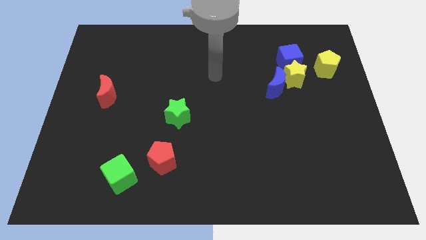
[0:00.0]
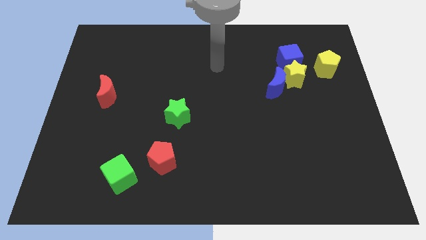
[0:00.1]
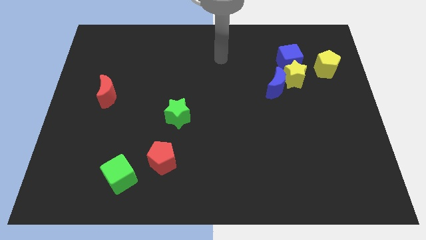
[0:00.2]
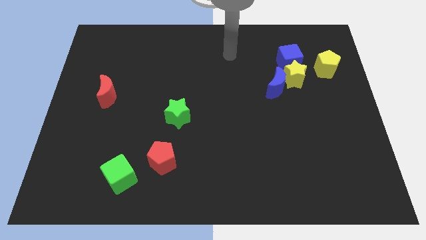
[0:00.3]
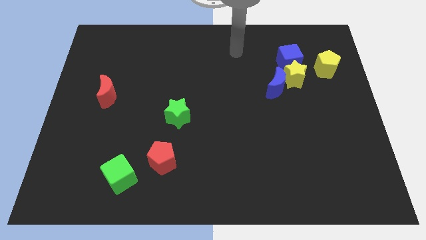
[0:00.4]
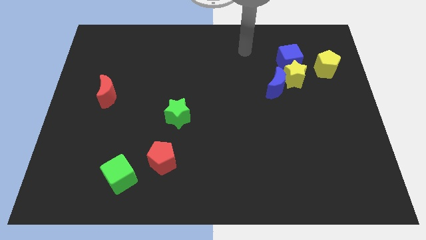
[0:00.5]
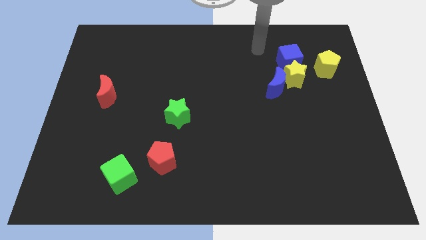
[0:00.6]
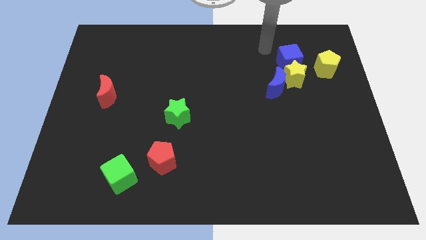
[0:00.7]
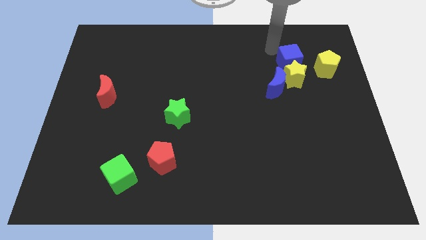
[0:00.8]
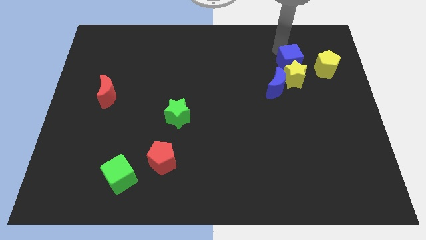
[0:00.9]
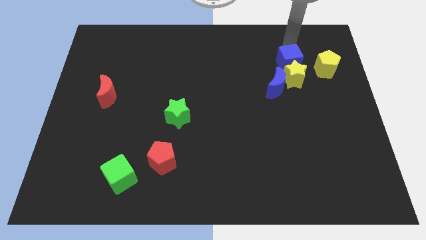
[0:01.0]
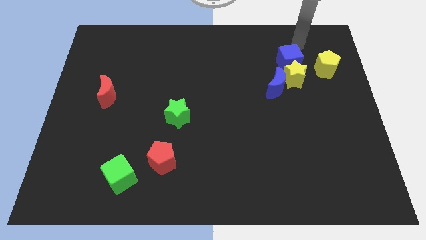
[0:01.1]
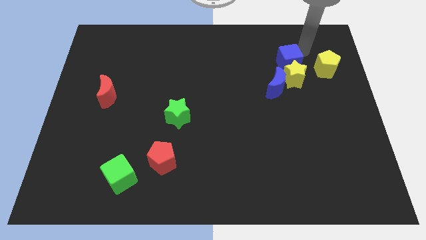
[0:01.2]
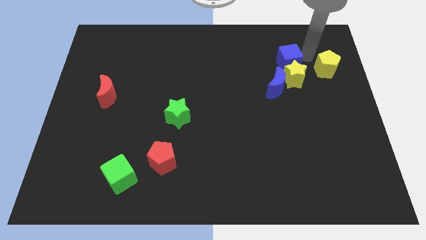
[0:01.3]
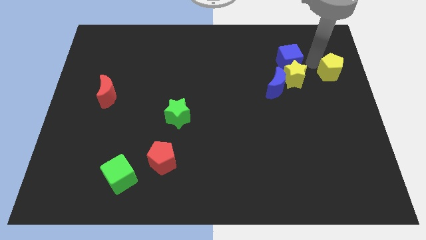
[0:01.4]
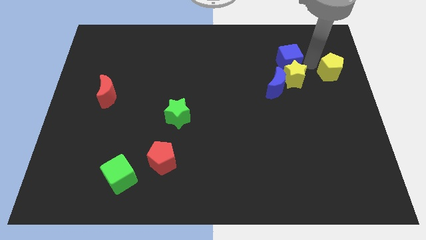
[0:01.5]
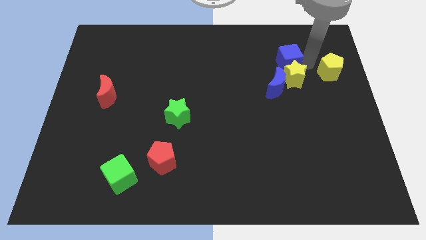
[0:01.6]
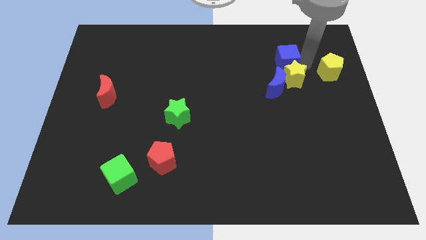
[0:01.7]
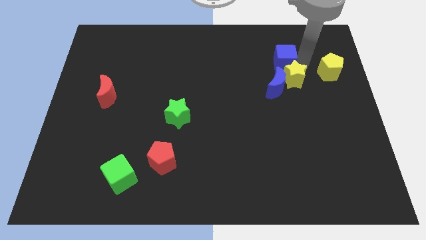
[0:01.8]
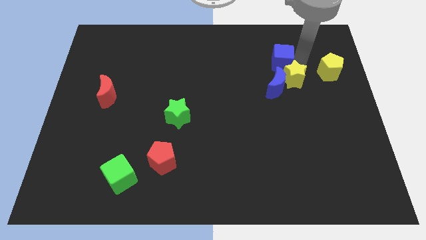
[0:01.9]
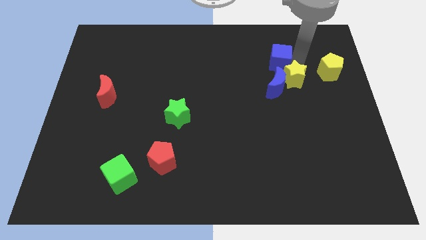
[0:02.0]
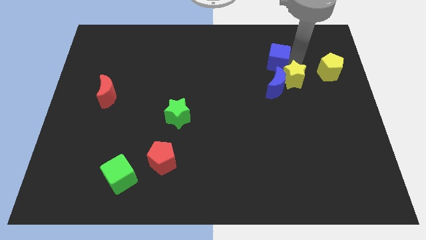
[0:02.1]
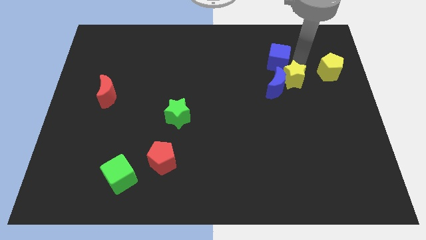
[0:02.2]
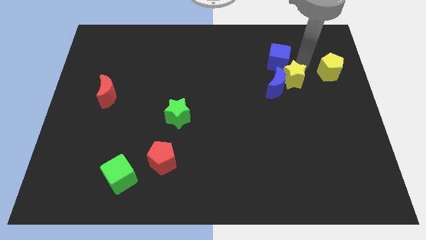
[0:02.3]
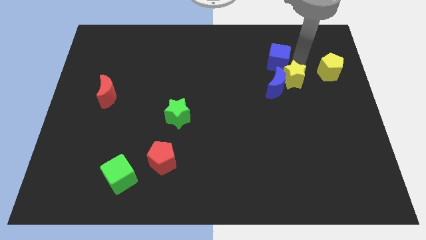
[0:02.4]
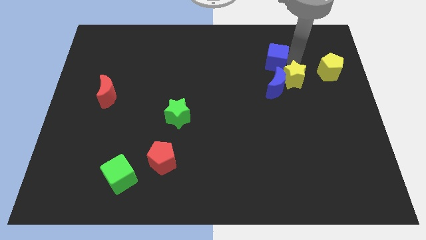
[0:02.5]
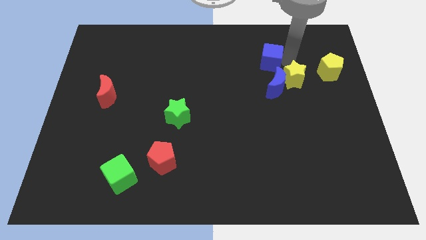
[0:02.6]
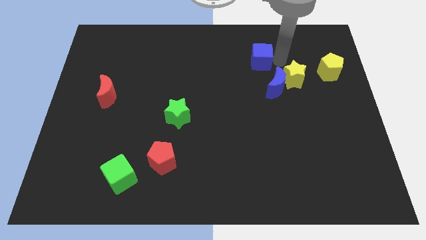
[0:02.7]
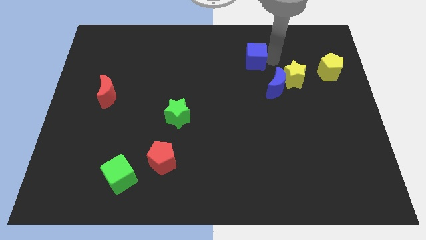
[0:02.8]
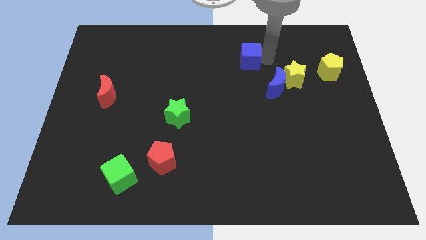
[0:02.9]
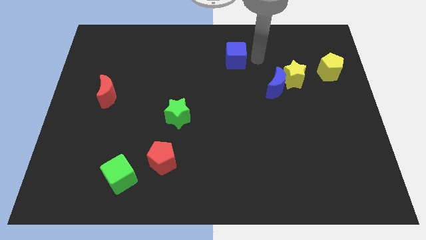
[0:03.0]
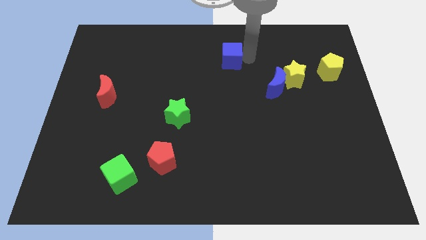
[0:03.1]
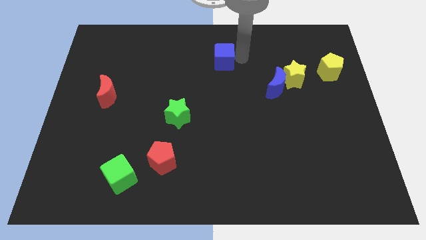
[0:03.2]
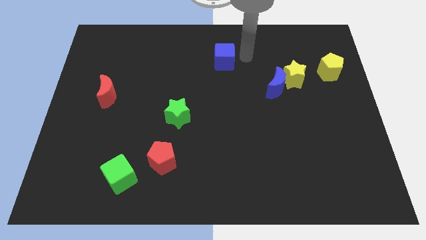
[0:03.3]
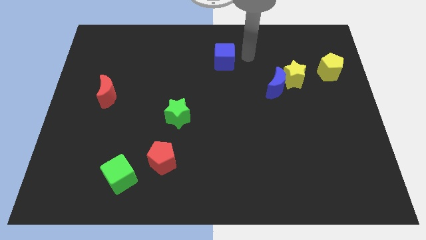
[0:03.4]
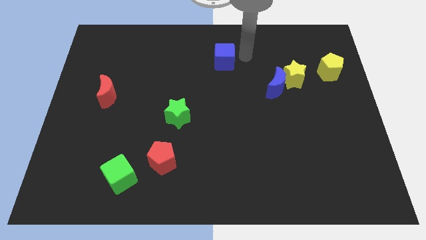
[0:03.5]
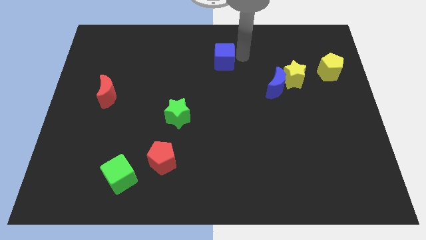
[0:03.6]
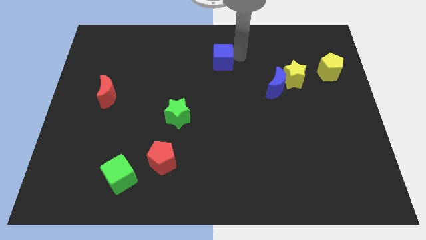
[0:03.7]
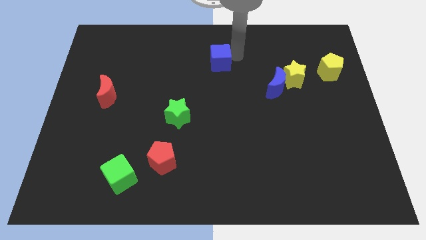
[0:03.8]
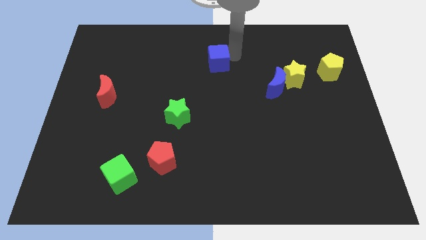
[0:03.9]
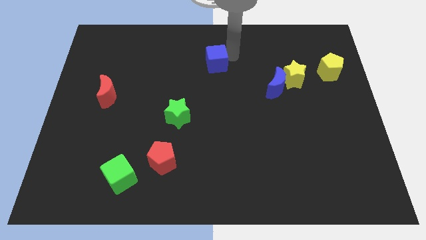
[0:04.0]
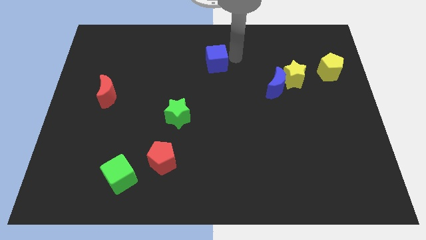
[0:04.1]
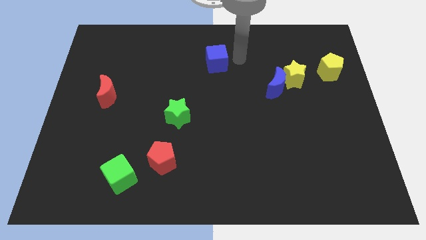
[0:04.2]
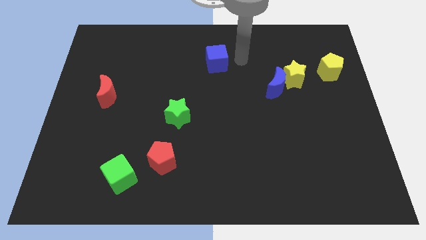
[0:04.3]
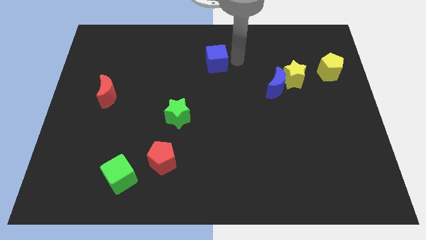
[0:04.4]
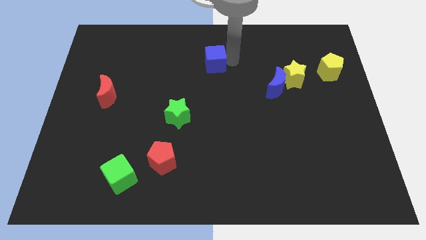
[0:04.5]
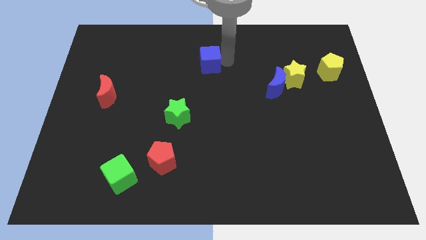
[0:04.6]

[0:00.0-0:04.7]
push the blue cube left

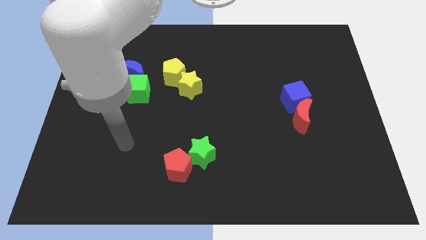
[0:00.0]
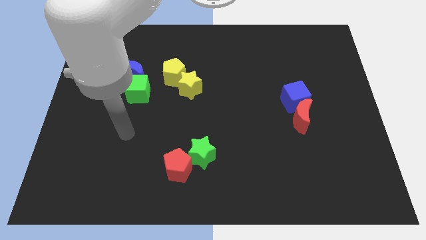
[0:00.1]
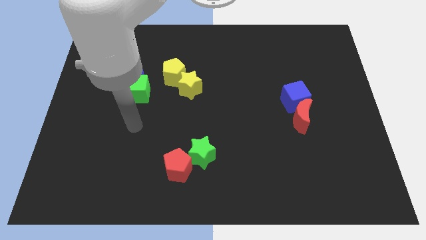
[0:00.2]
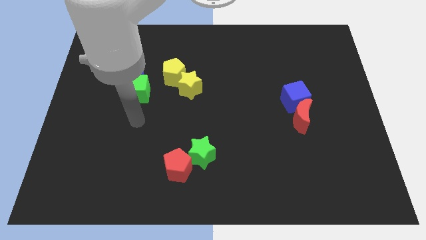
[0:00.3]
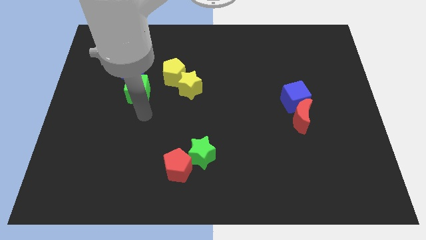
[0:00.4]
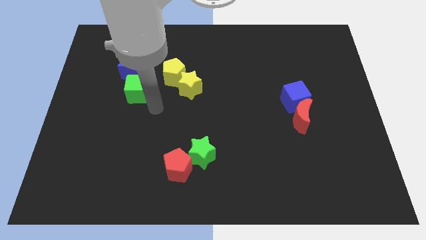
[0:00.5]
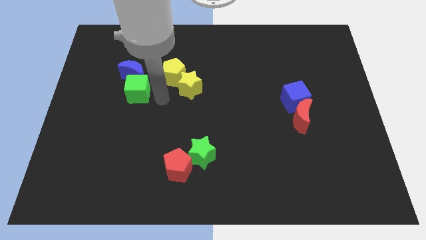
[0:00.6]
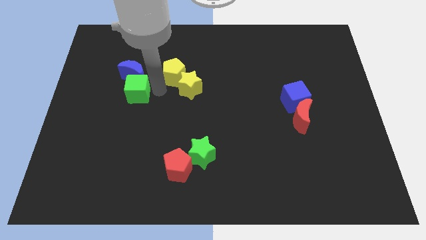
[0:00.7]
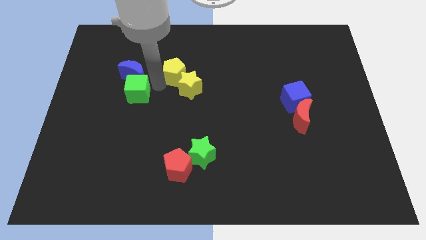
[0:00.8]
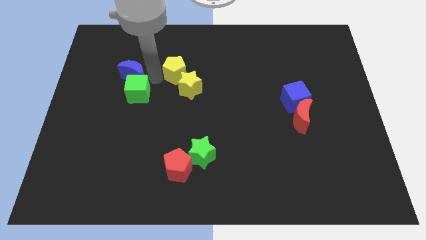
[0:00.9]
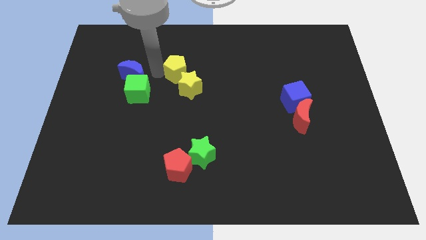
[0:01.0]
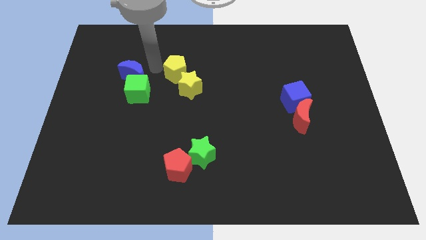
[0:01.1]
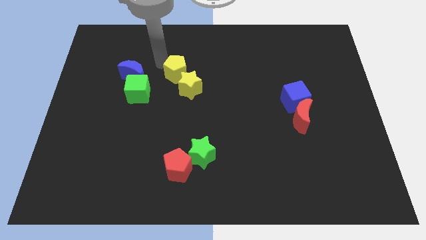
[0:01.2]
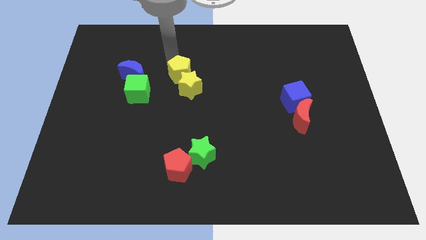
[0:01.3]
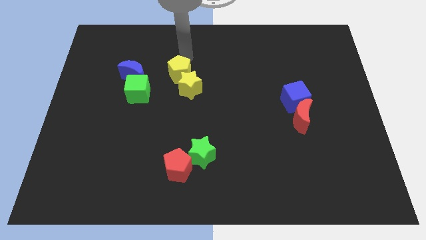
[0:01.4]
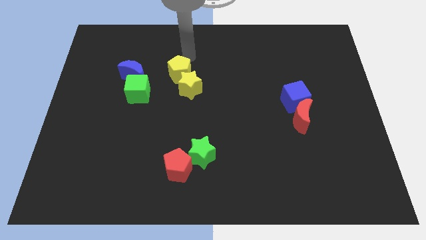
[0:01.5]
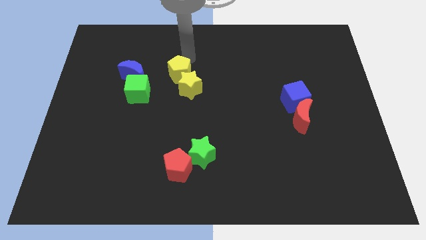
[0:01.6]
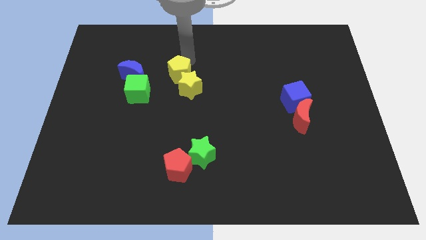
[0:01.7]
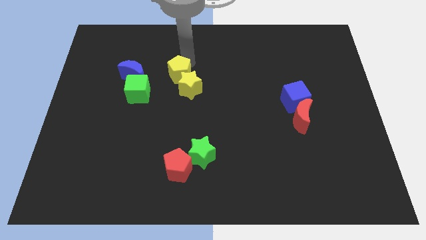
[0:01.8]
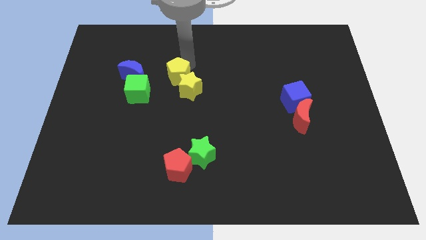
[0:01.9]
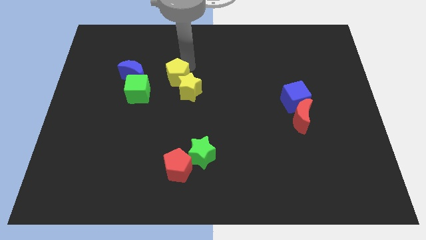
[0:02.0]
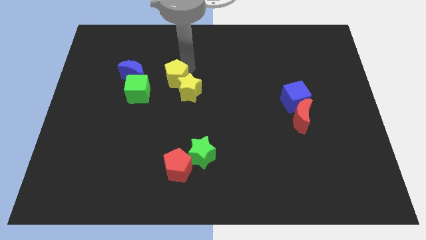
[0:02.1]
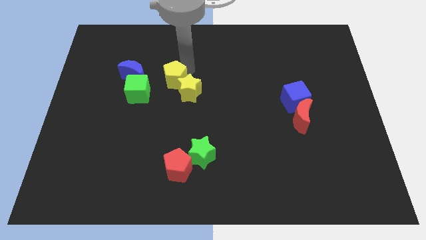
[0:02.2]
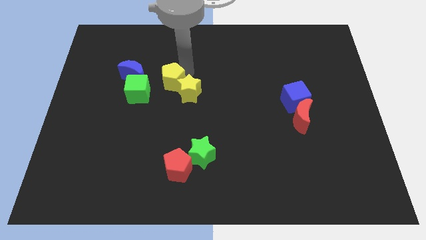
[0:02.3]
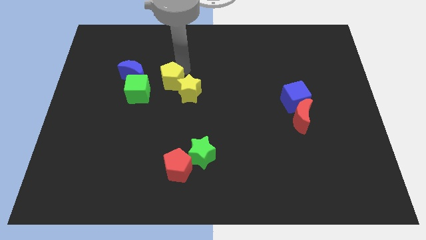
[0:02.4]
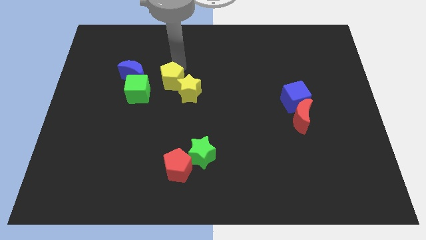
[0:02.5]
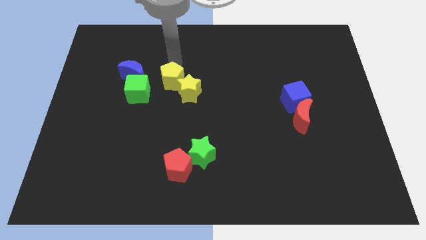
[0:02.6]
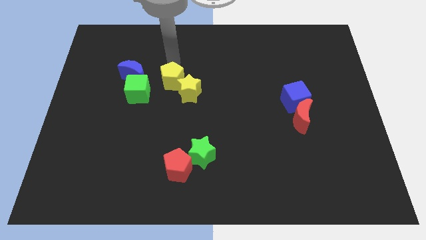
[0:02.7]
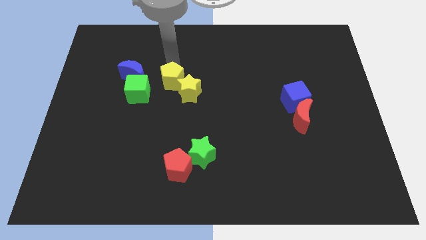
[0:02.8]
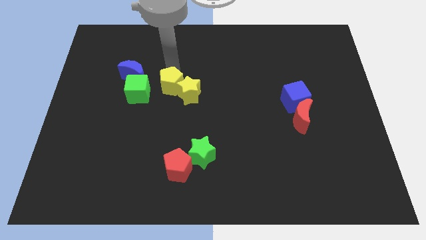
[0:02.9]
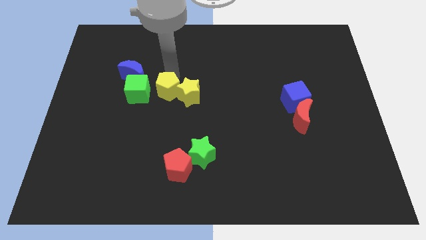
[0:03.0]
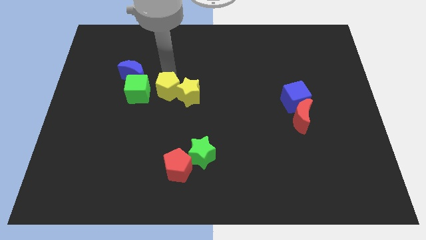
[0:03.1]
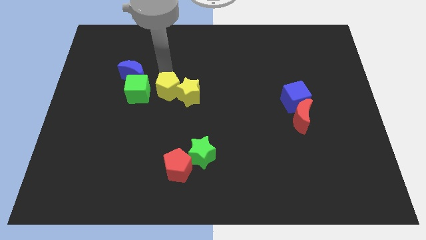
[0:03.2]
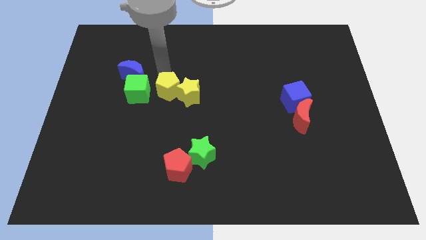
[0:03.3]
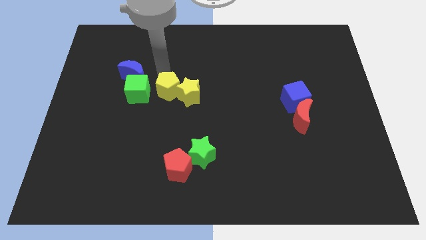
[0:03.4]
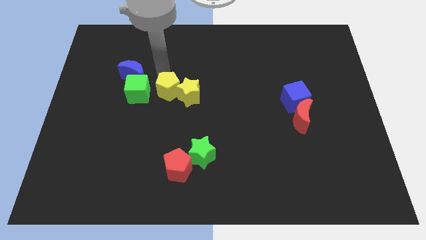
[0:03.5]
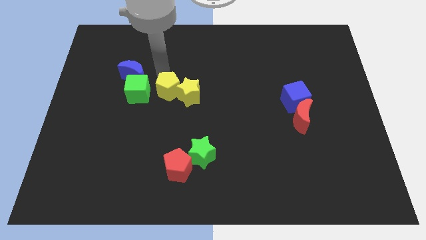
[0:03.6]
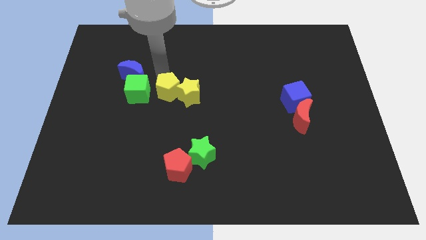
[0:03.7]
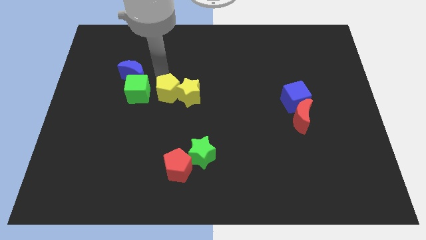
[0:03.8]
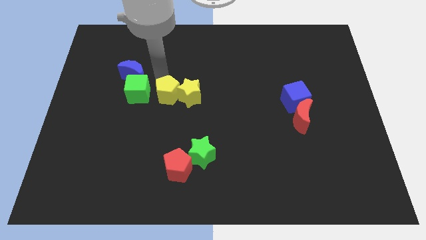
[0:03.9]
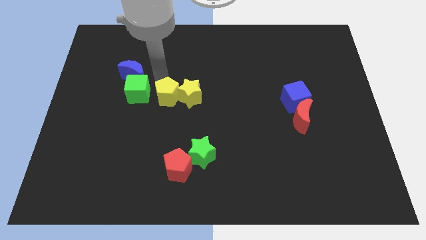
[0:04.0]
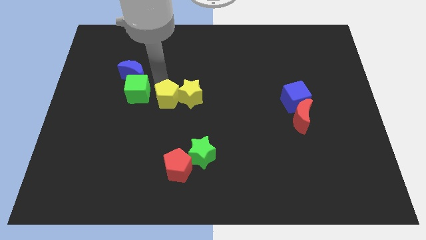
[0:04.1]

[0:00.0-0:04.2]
slide the yellow pentagon down a bit
